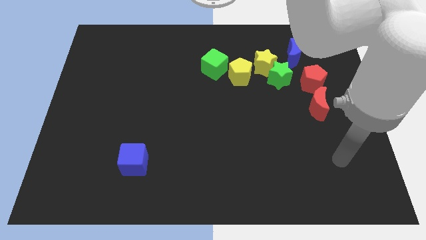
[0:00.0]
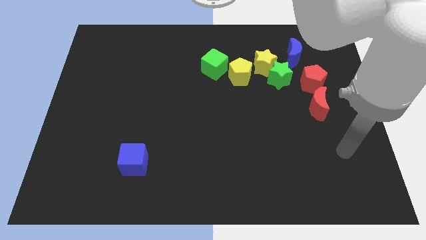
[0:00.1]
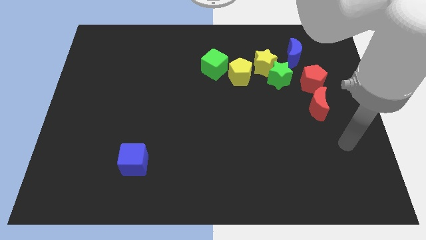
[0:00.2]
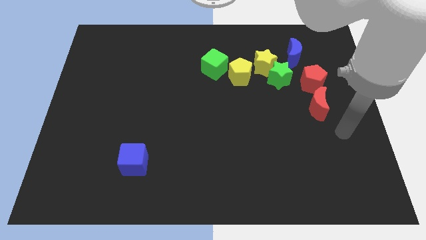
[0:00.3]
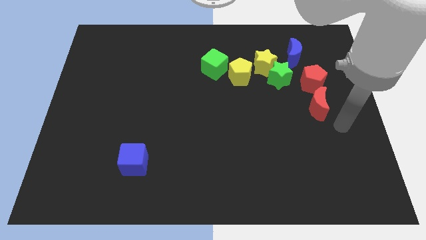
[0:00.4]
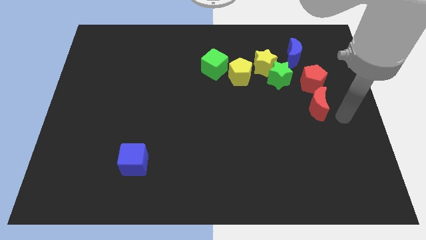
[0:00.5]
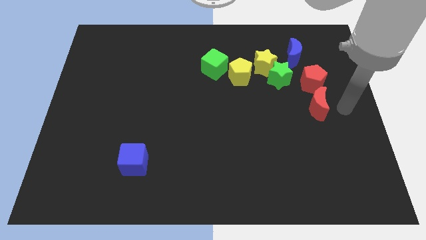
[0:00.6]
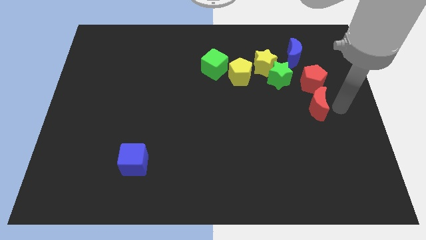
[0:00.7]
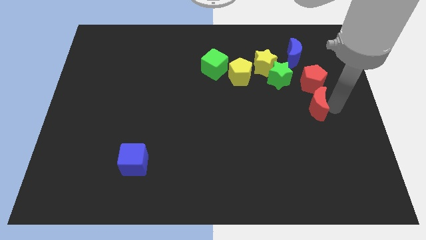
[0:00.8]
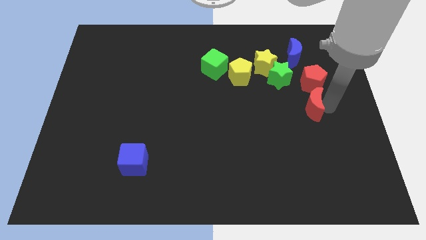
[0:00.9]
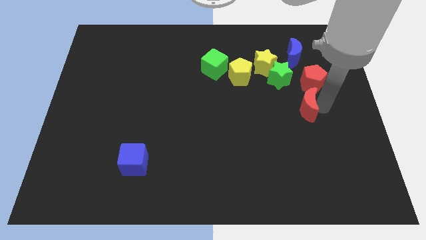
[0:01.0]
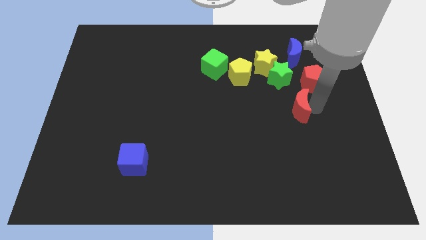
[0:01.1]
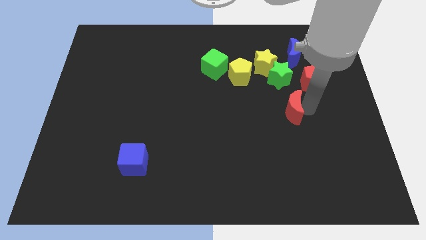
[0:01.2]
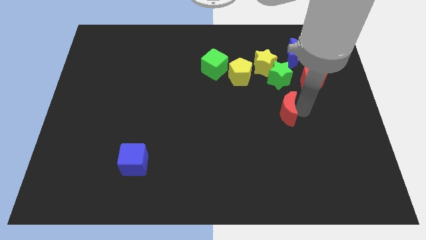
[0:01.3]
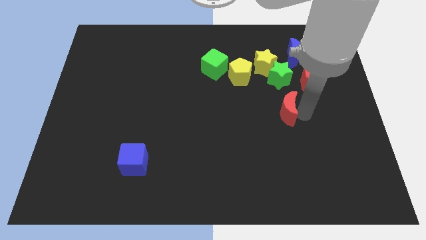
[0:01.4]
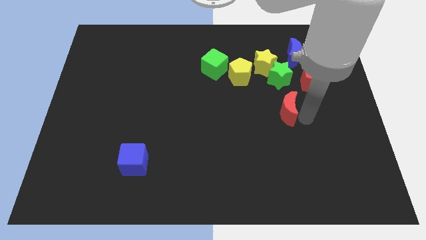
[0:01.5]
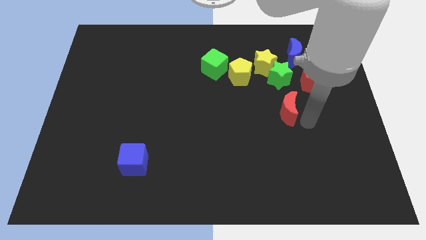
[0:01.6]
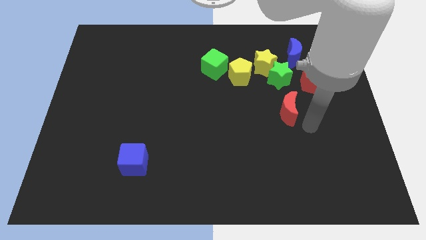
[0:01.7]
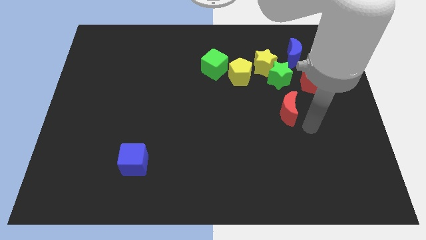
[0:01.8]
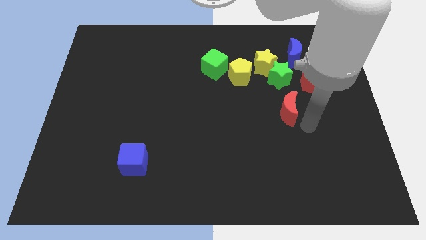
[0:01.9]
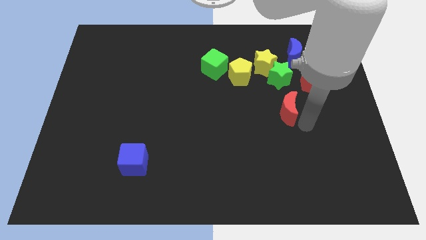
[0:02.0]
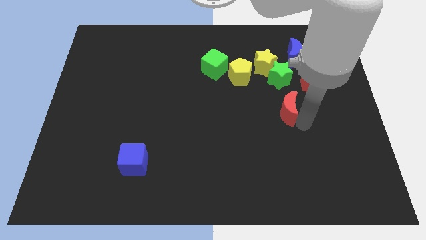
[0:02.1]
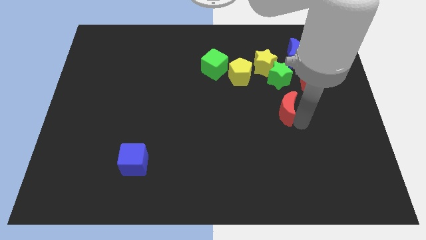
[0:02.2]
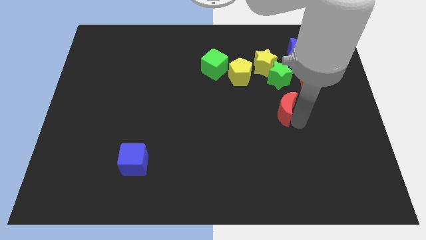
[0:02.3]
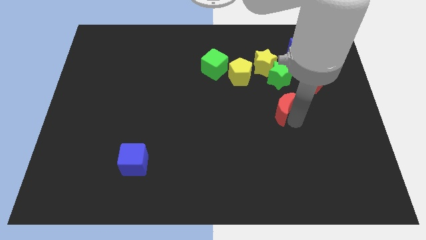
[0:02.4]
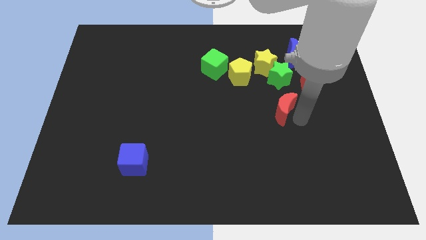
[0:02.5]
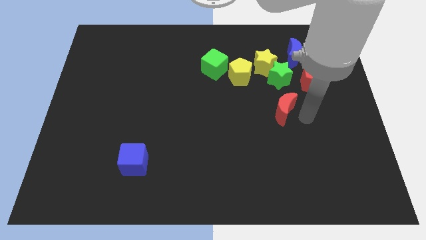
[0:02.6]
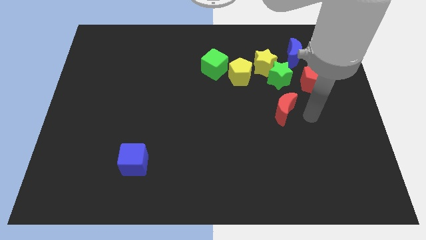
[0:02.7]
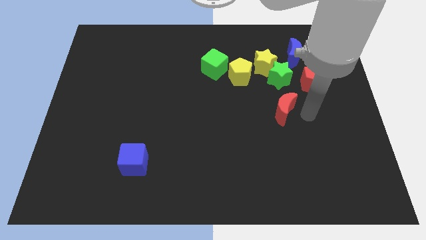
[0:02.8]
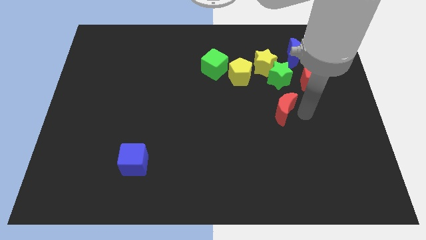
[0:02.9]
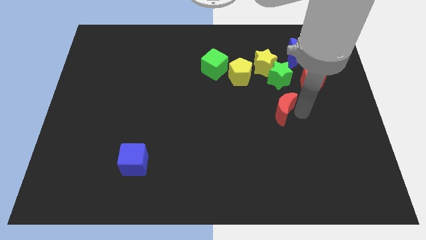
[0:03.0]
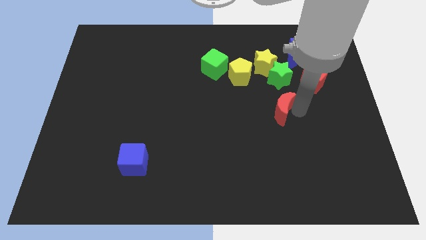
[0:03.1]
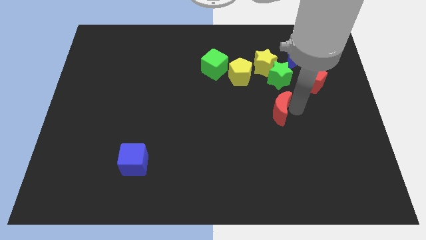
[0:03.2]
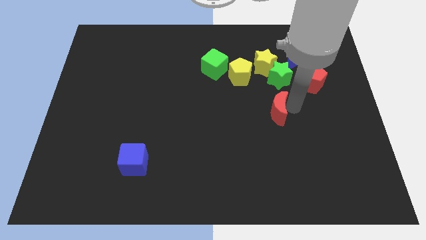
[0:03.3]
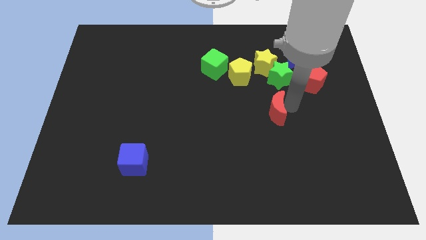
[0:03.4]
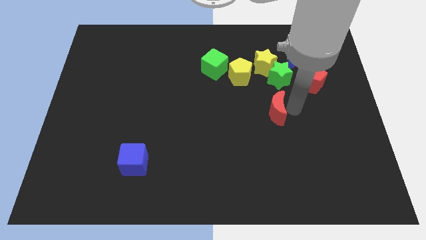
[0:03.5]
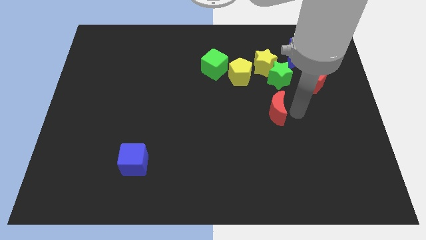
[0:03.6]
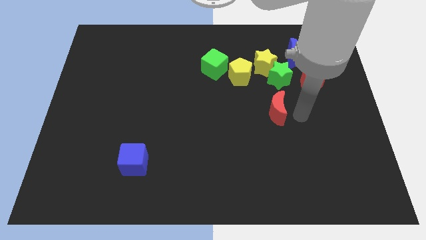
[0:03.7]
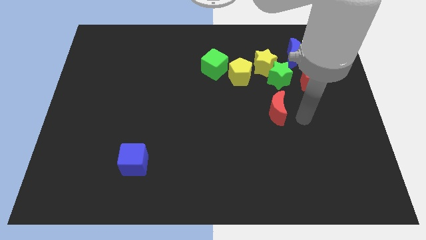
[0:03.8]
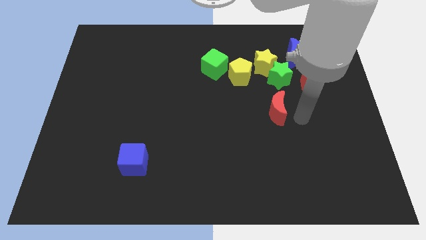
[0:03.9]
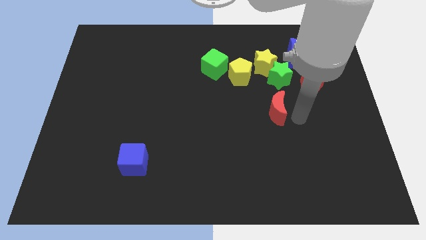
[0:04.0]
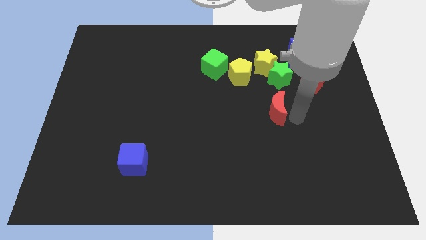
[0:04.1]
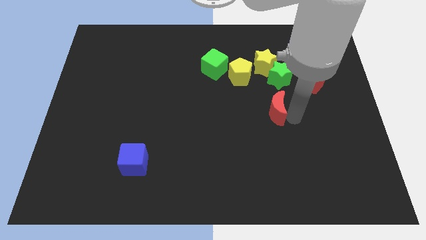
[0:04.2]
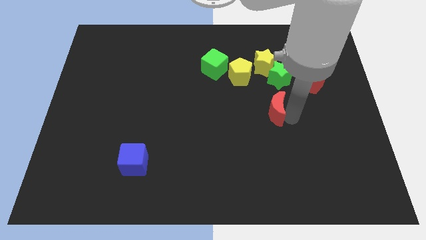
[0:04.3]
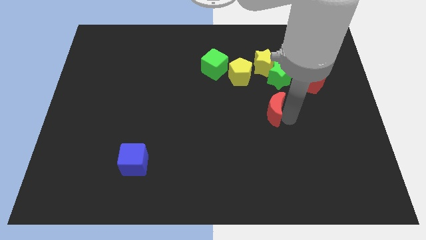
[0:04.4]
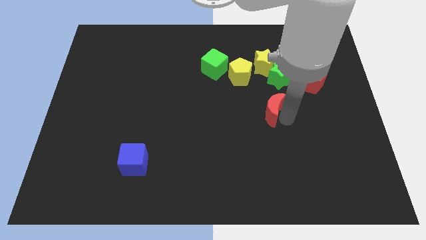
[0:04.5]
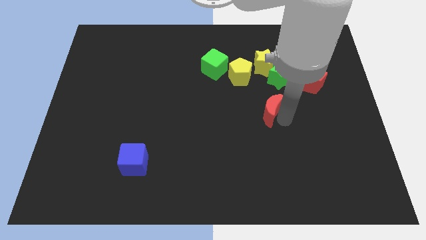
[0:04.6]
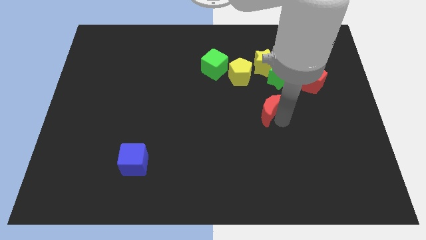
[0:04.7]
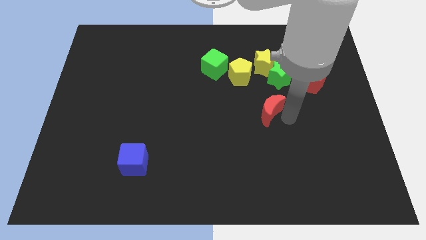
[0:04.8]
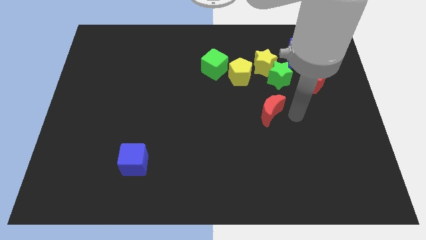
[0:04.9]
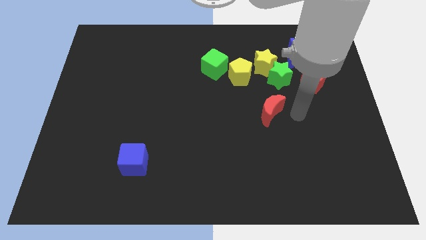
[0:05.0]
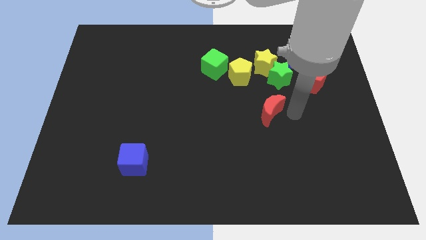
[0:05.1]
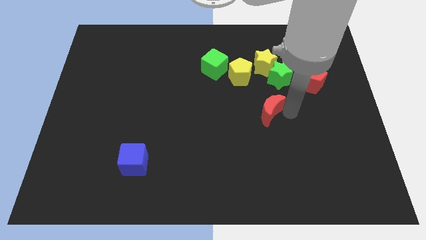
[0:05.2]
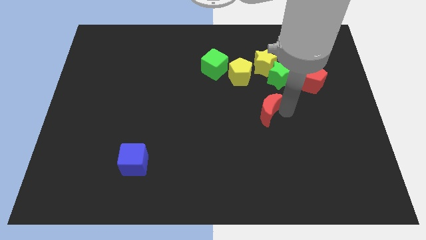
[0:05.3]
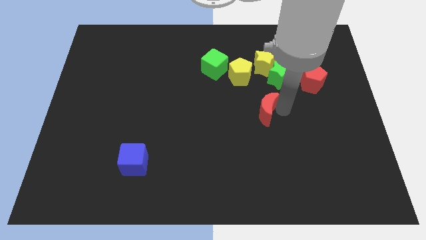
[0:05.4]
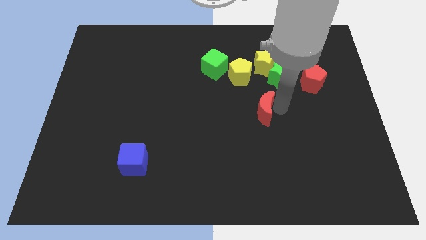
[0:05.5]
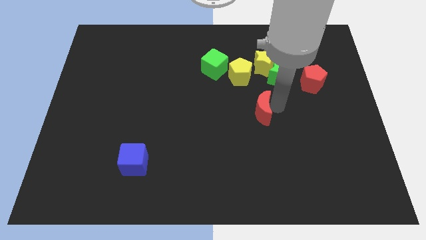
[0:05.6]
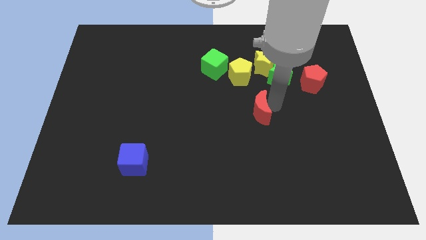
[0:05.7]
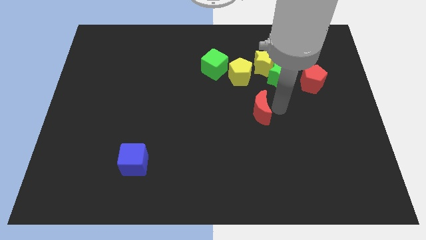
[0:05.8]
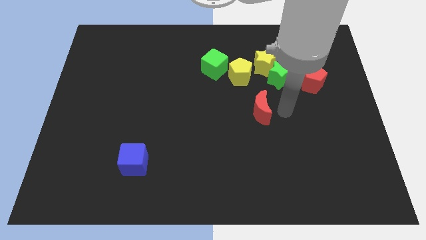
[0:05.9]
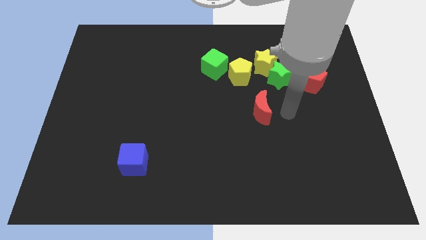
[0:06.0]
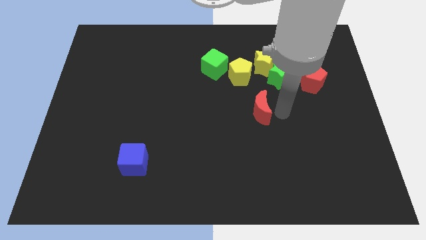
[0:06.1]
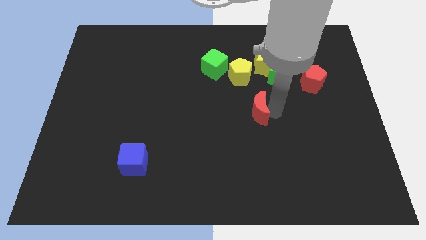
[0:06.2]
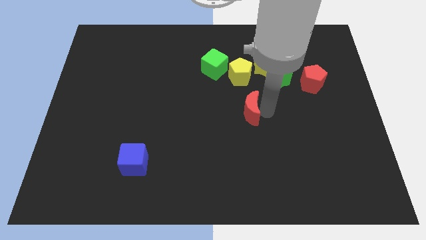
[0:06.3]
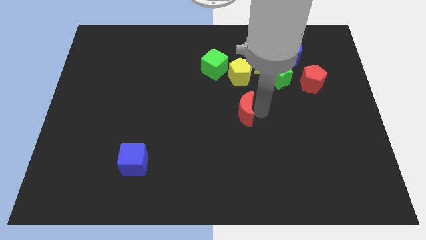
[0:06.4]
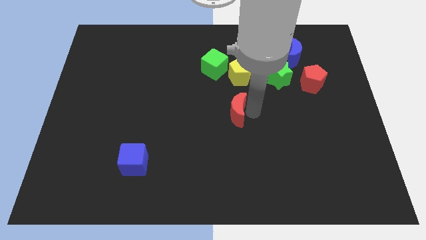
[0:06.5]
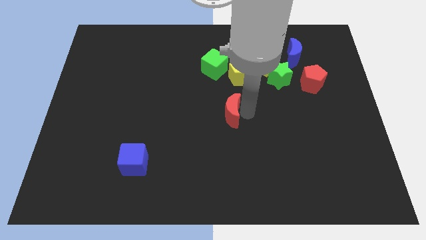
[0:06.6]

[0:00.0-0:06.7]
push the red moon left

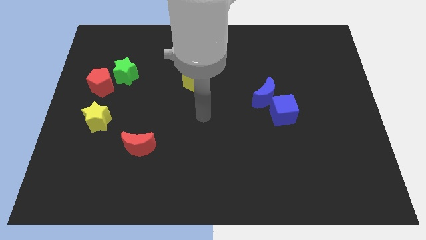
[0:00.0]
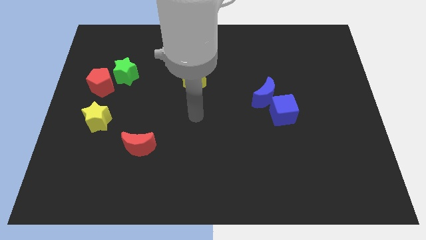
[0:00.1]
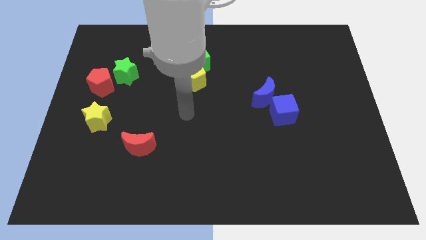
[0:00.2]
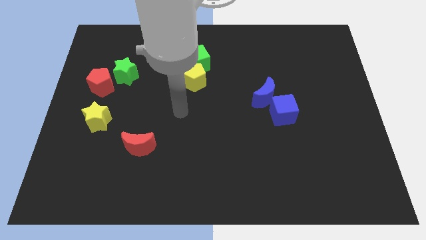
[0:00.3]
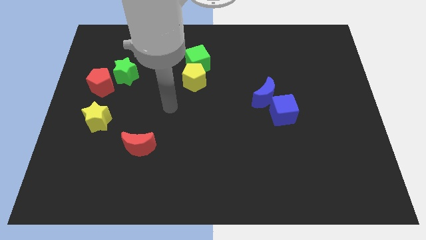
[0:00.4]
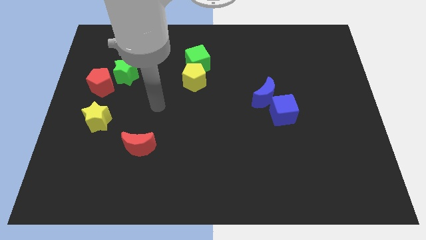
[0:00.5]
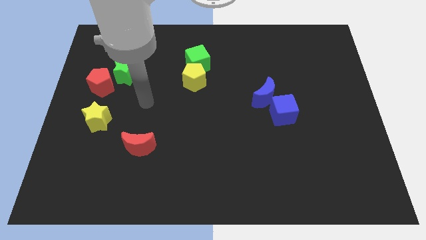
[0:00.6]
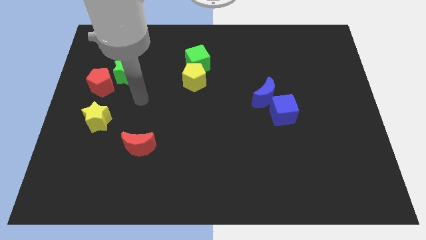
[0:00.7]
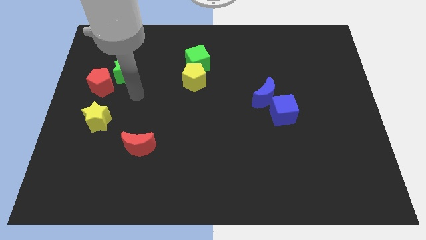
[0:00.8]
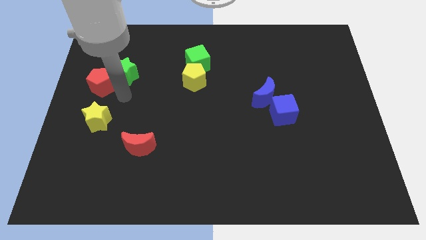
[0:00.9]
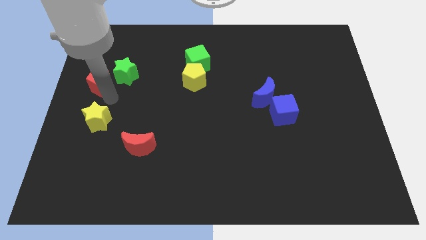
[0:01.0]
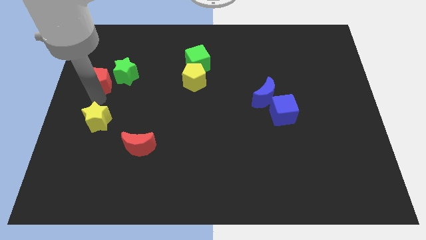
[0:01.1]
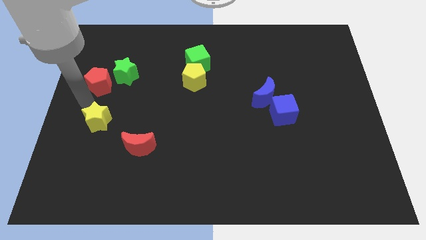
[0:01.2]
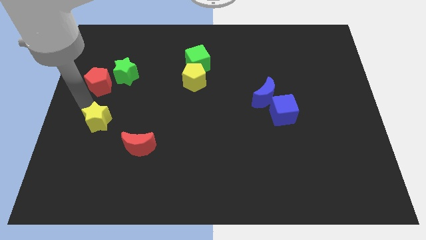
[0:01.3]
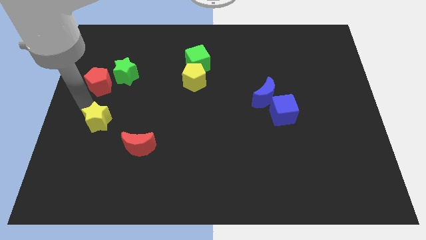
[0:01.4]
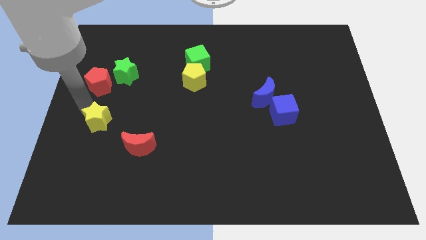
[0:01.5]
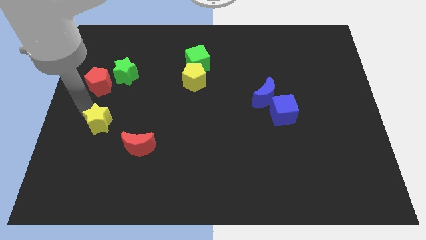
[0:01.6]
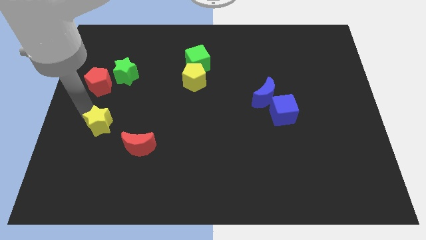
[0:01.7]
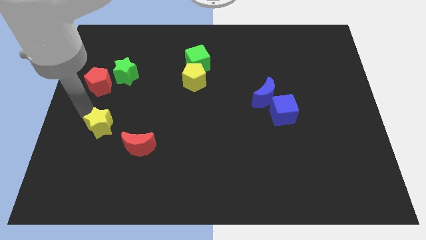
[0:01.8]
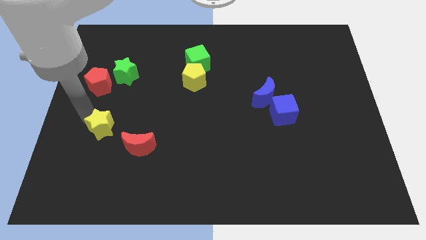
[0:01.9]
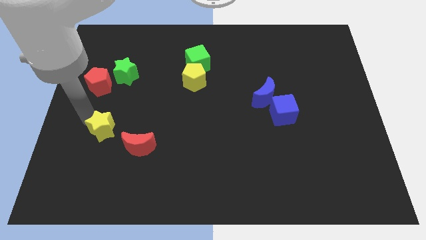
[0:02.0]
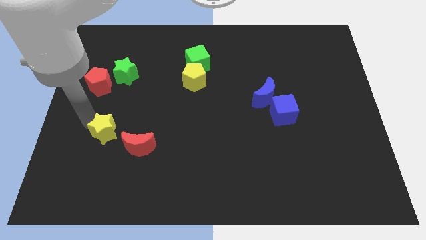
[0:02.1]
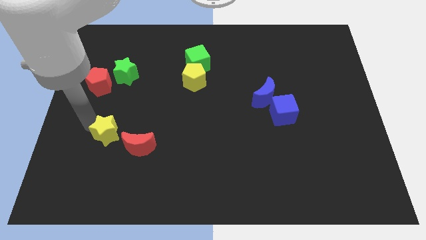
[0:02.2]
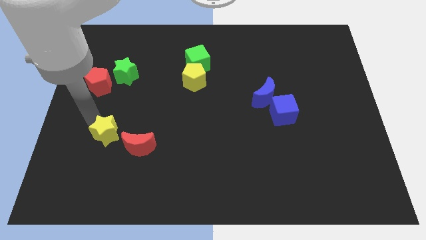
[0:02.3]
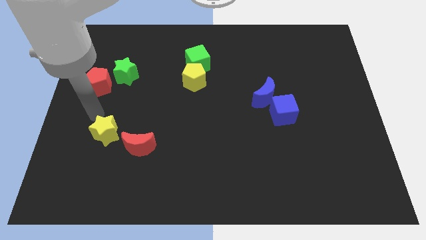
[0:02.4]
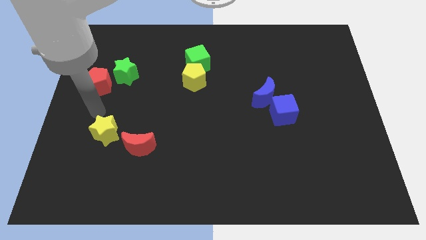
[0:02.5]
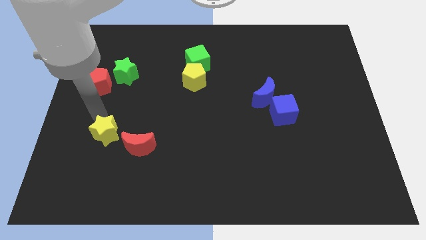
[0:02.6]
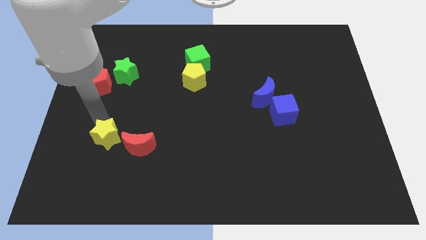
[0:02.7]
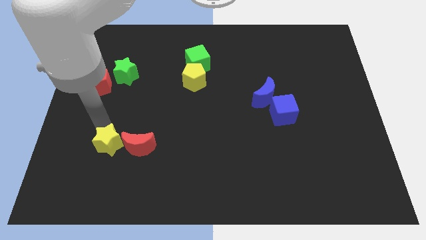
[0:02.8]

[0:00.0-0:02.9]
slightly push the yellow star diagonally downwards and right
